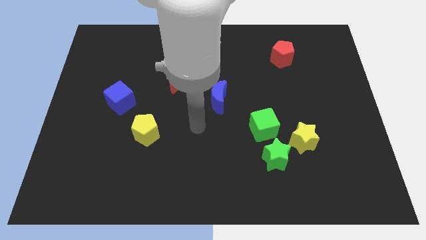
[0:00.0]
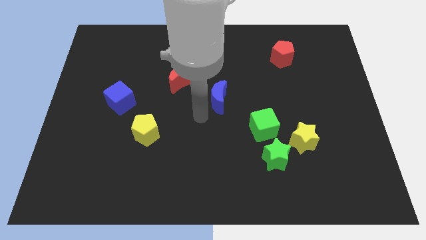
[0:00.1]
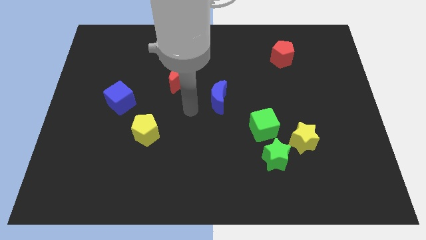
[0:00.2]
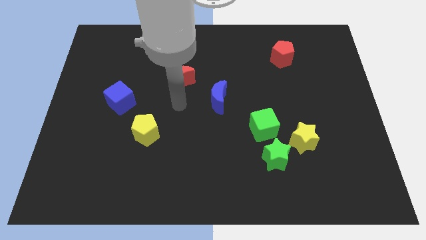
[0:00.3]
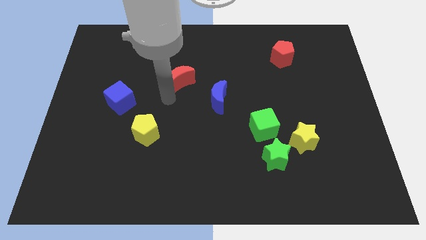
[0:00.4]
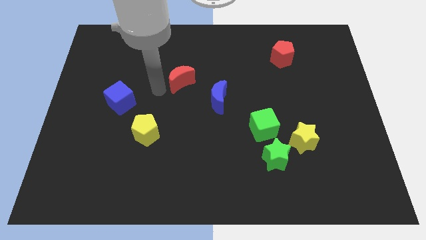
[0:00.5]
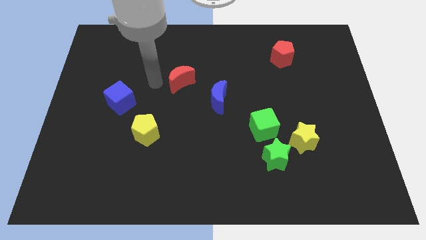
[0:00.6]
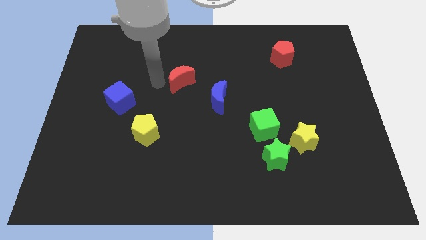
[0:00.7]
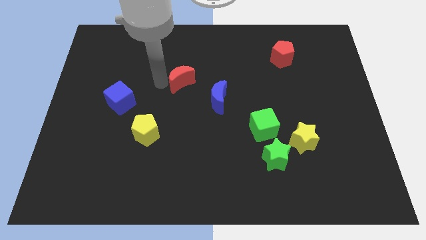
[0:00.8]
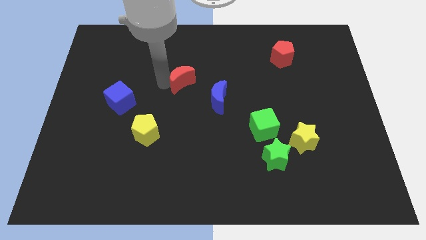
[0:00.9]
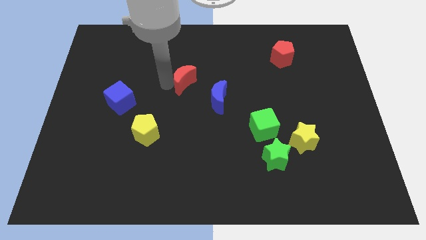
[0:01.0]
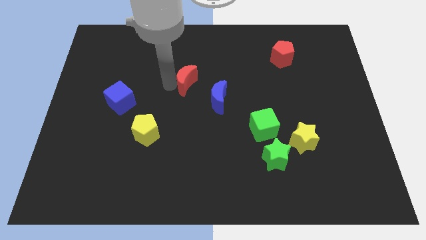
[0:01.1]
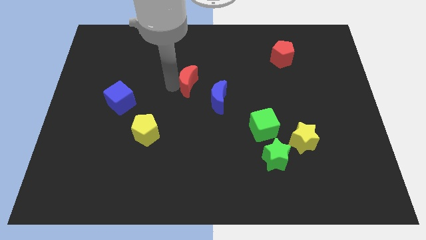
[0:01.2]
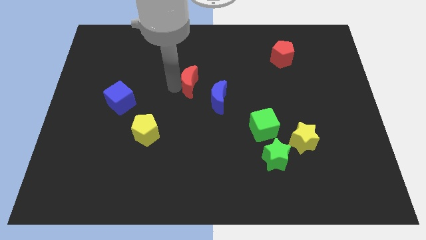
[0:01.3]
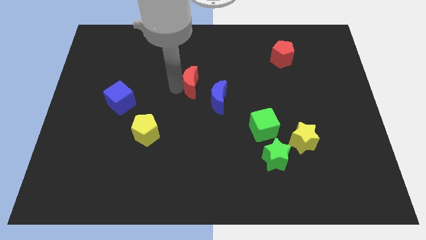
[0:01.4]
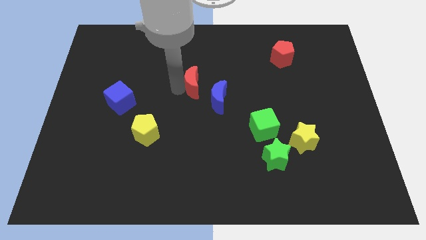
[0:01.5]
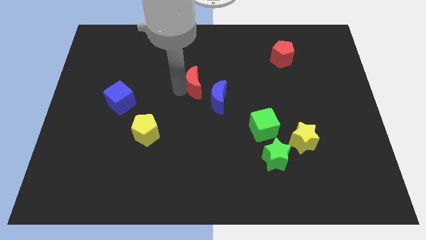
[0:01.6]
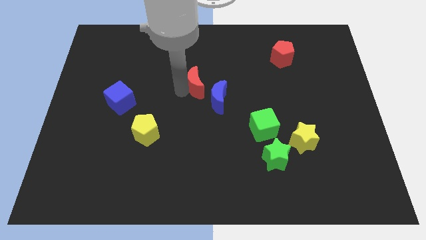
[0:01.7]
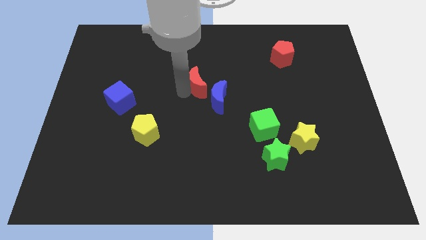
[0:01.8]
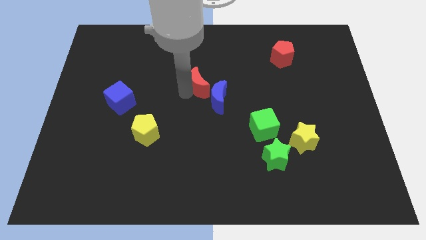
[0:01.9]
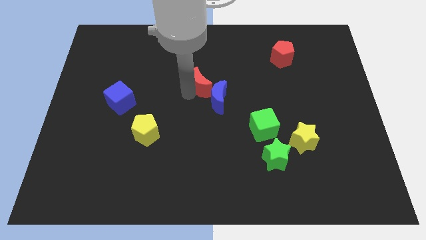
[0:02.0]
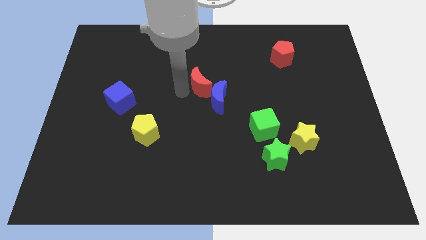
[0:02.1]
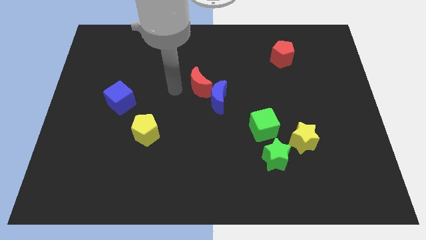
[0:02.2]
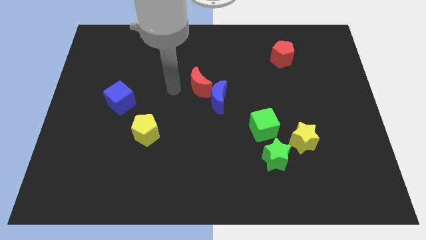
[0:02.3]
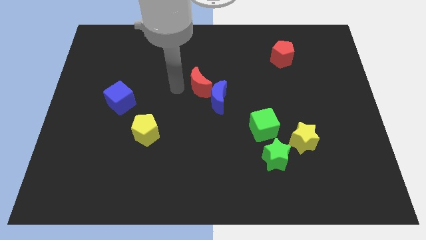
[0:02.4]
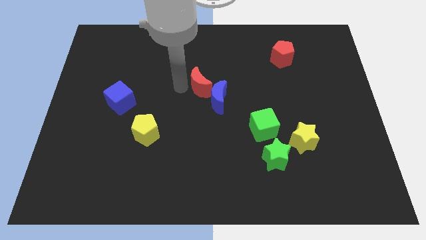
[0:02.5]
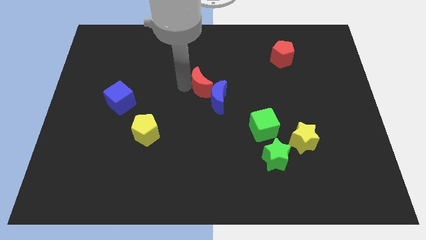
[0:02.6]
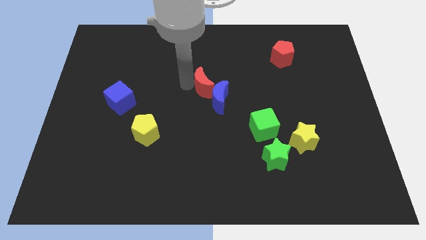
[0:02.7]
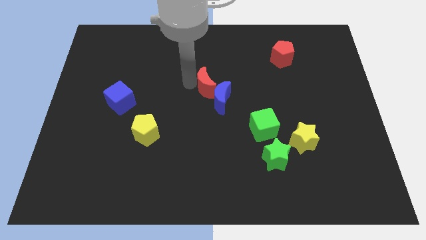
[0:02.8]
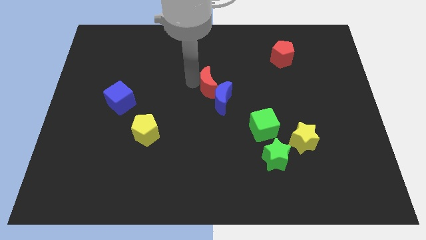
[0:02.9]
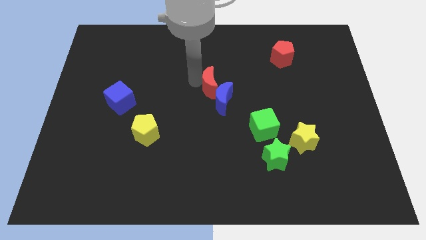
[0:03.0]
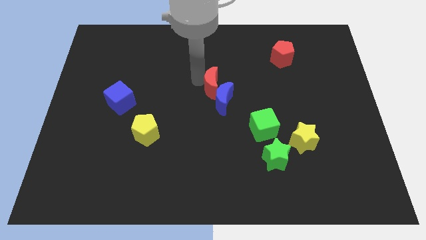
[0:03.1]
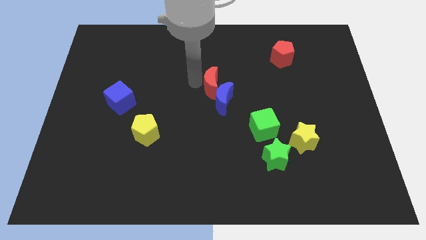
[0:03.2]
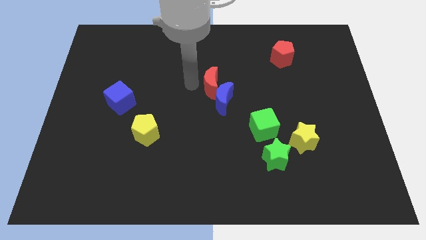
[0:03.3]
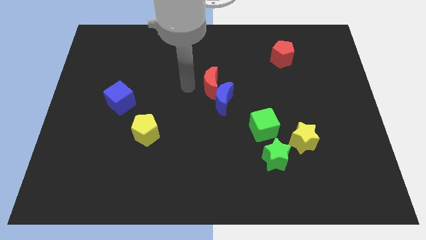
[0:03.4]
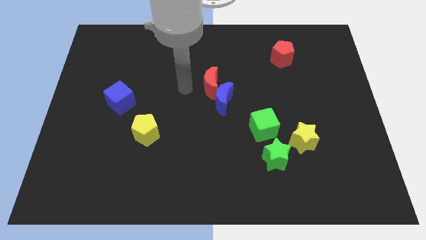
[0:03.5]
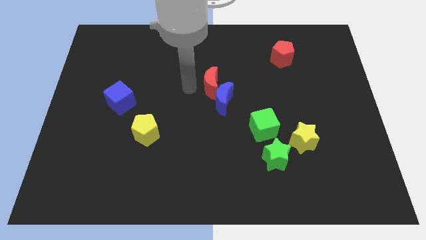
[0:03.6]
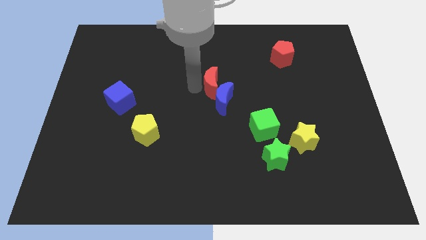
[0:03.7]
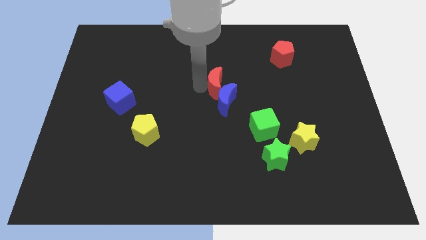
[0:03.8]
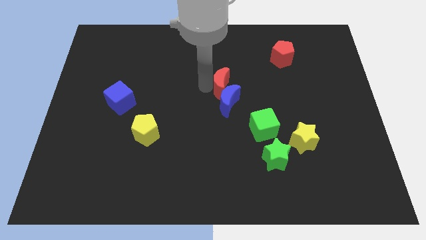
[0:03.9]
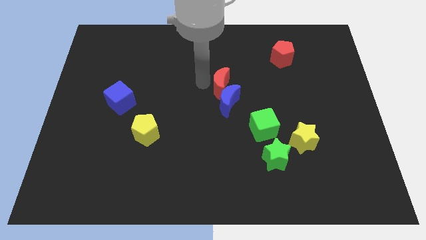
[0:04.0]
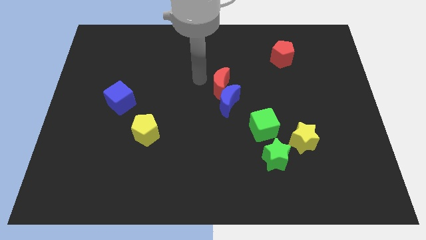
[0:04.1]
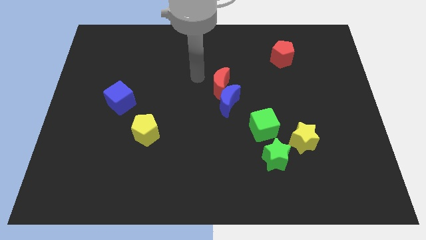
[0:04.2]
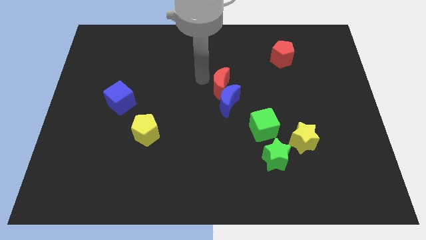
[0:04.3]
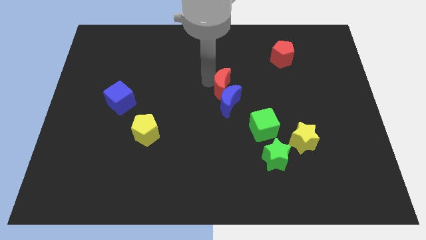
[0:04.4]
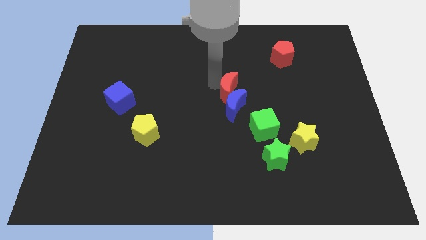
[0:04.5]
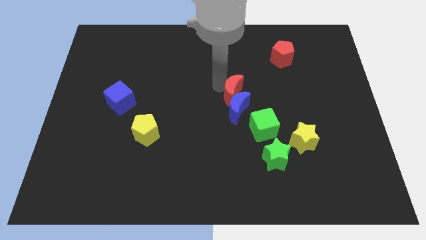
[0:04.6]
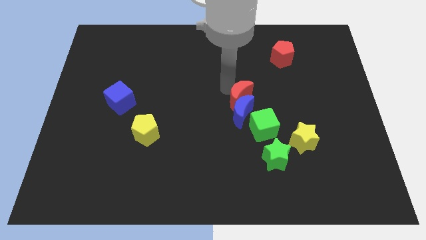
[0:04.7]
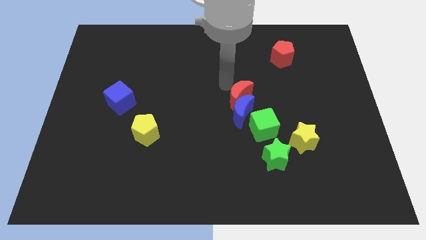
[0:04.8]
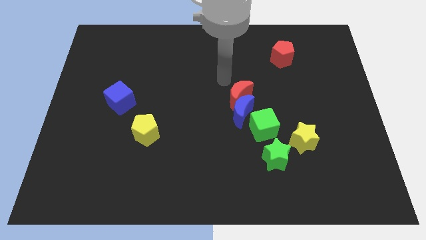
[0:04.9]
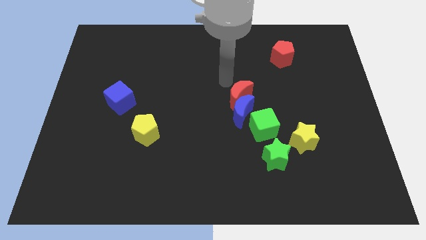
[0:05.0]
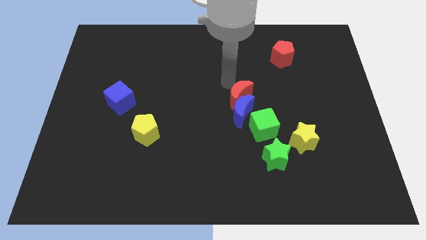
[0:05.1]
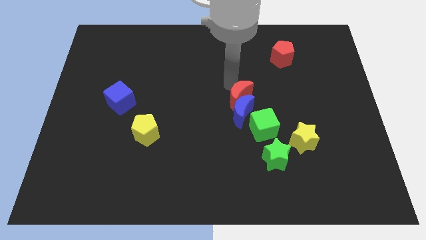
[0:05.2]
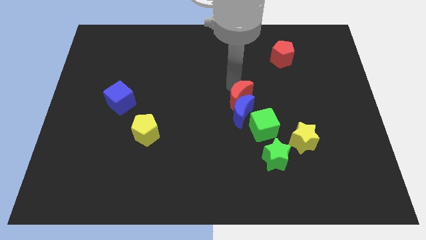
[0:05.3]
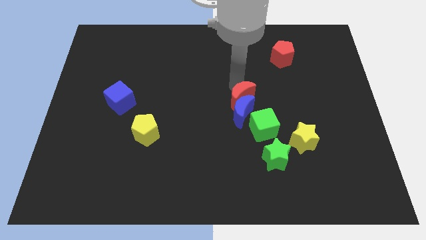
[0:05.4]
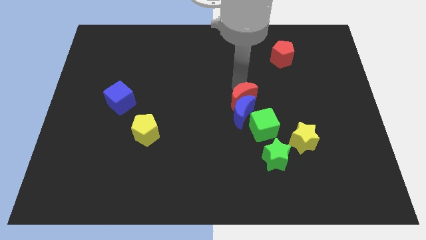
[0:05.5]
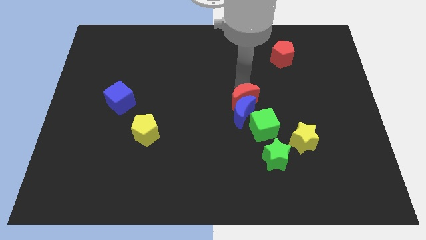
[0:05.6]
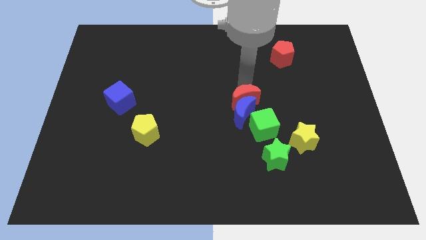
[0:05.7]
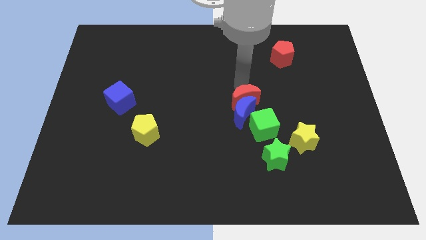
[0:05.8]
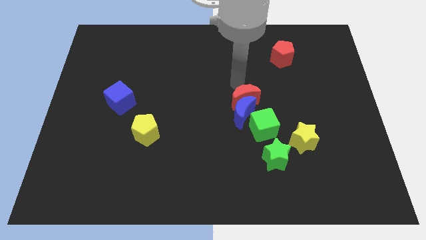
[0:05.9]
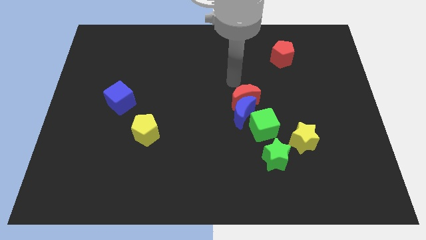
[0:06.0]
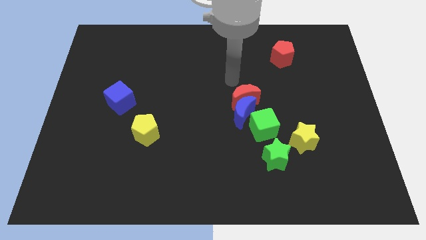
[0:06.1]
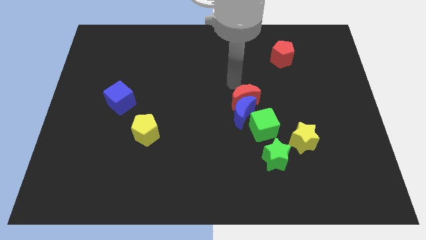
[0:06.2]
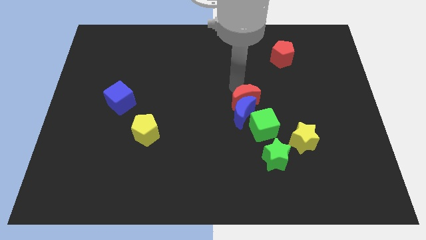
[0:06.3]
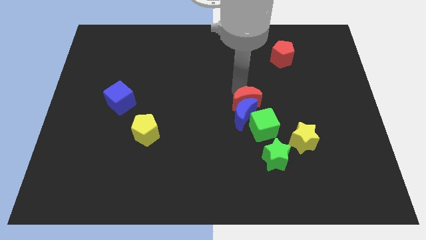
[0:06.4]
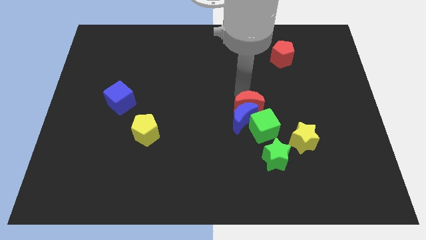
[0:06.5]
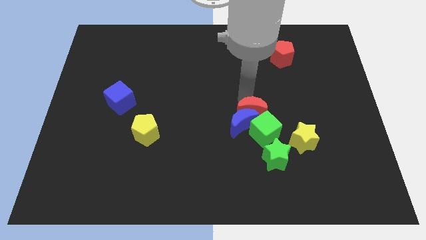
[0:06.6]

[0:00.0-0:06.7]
move the red moon close to the green cube

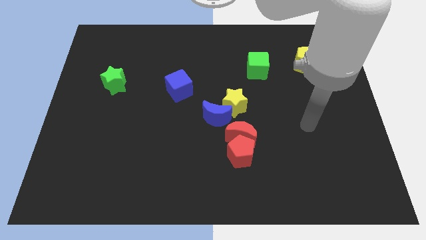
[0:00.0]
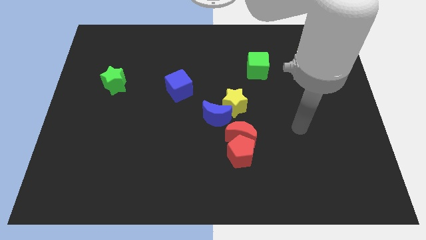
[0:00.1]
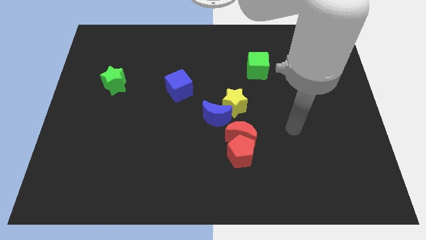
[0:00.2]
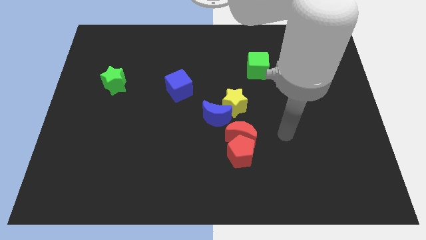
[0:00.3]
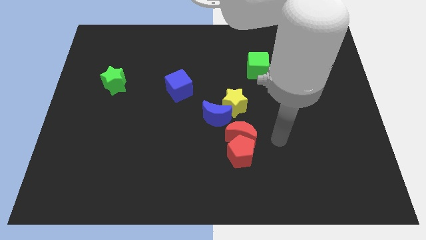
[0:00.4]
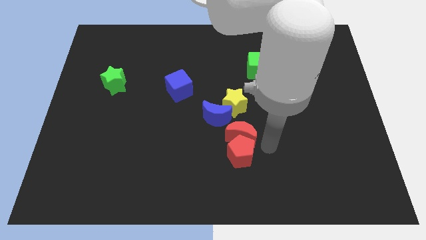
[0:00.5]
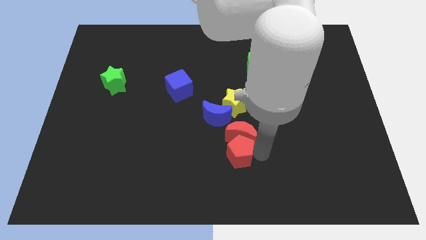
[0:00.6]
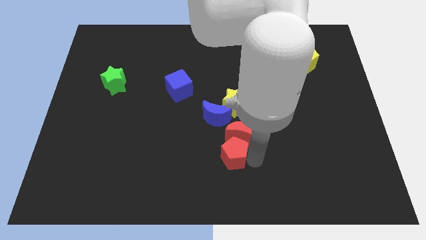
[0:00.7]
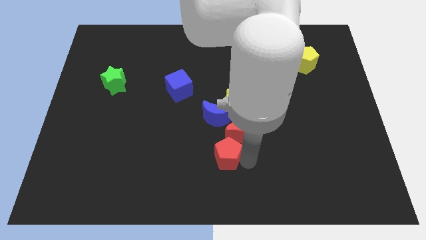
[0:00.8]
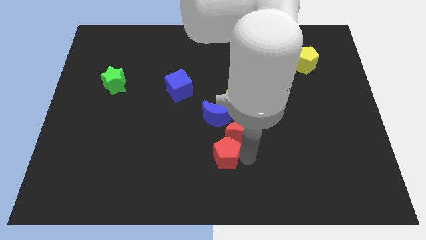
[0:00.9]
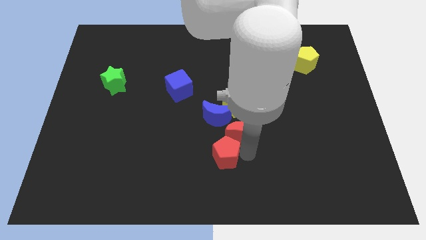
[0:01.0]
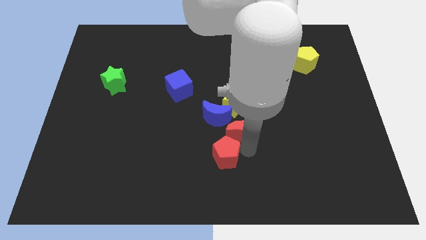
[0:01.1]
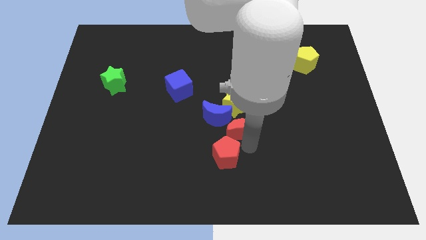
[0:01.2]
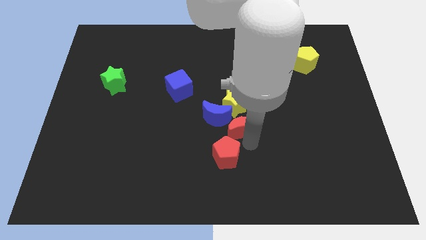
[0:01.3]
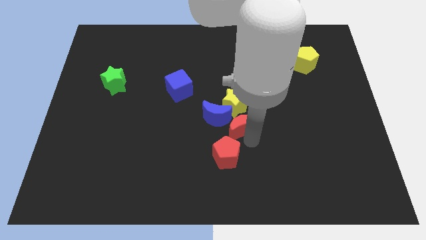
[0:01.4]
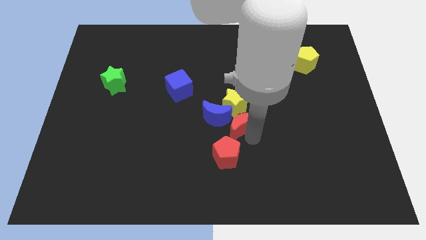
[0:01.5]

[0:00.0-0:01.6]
push the red moon to the yellow star
